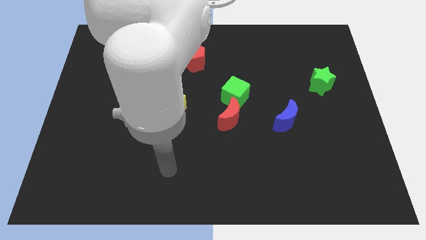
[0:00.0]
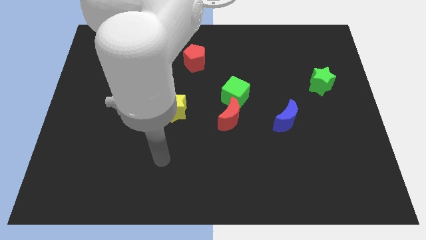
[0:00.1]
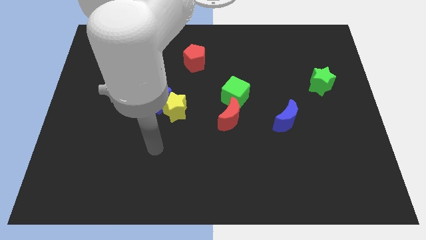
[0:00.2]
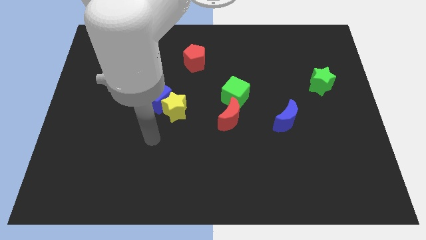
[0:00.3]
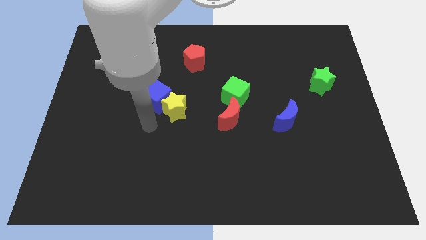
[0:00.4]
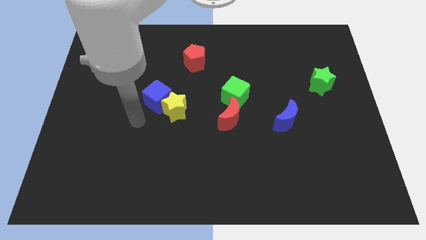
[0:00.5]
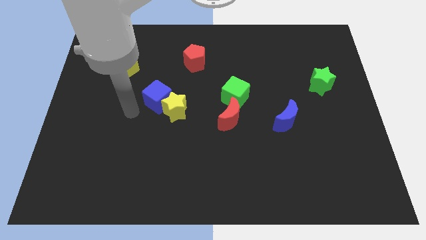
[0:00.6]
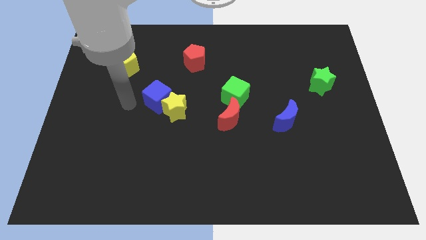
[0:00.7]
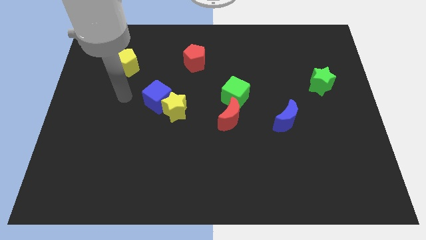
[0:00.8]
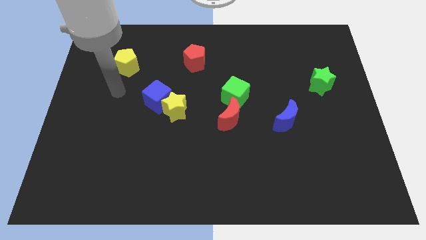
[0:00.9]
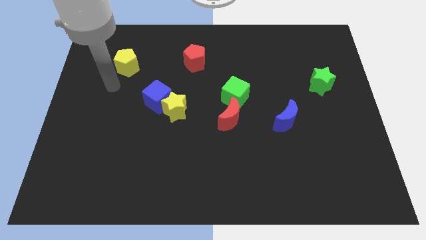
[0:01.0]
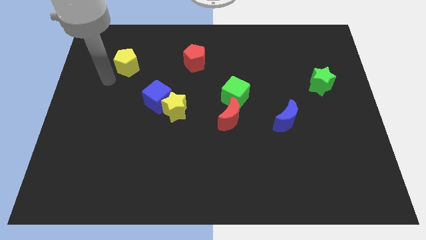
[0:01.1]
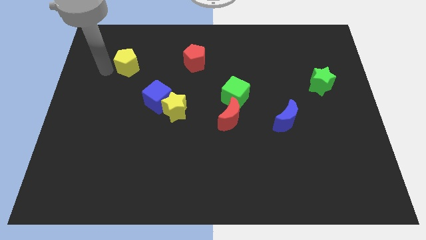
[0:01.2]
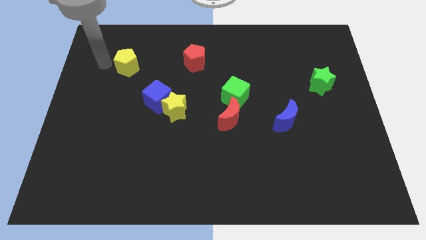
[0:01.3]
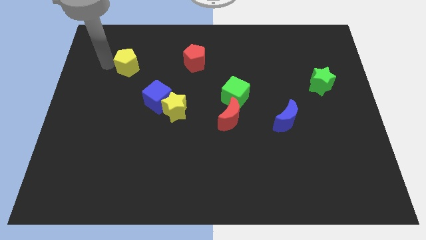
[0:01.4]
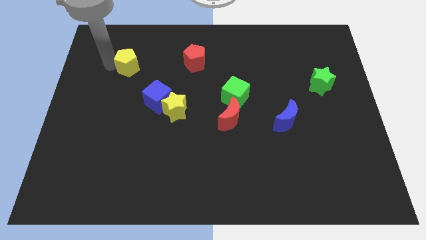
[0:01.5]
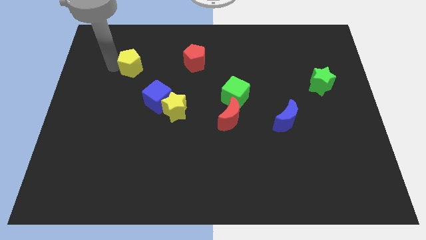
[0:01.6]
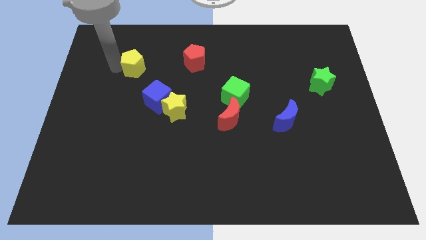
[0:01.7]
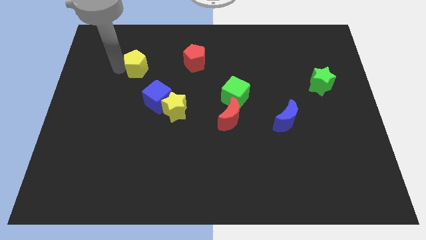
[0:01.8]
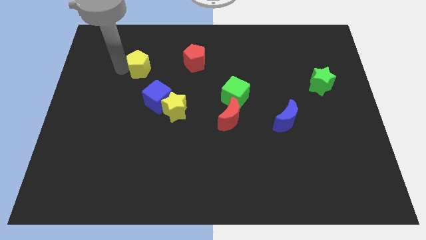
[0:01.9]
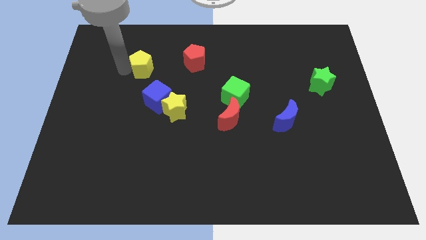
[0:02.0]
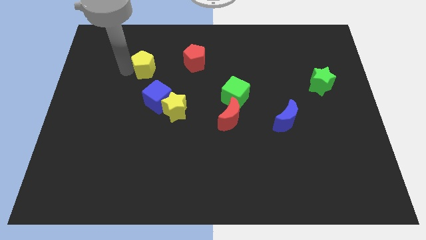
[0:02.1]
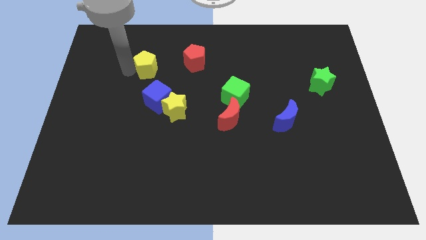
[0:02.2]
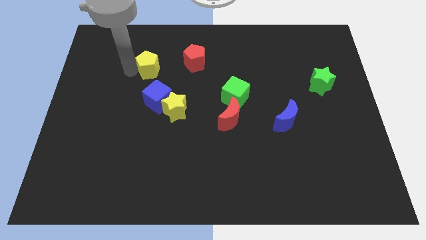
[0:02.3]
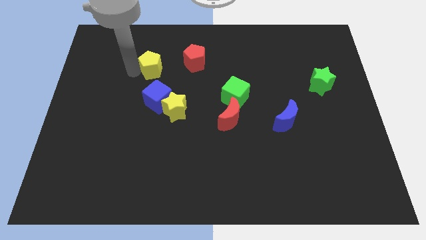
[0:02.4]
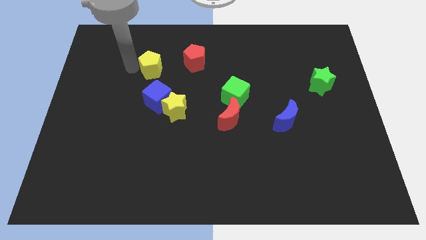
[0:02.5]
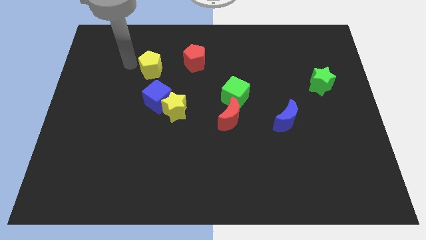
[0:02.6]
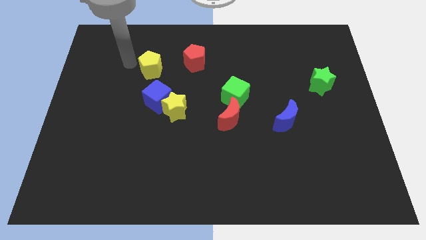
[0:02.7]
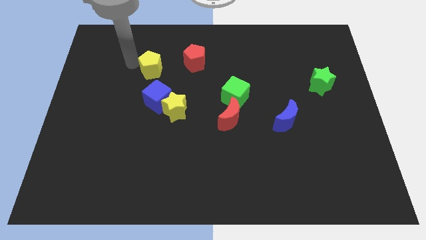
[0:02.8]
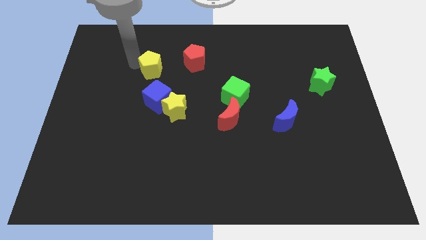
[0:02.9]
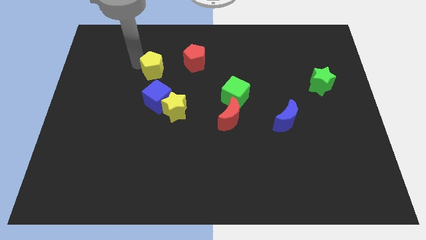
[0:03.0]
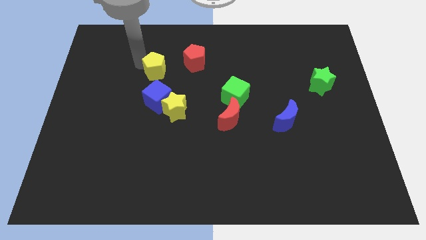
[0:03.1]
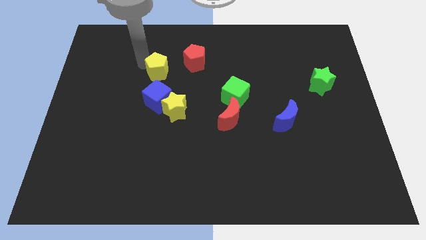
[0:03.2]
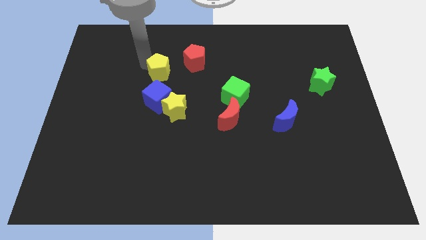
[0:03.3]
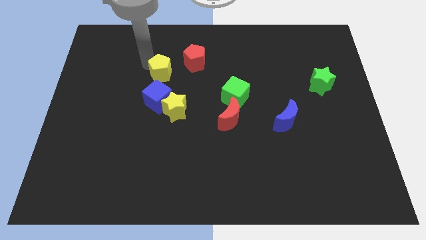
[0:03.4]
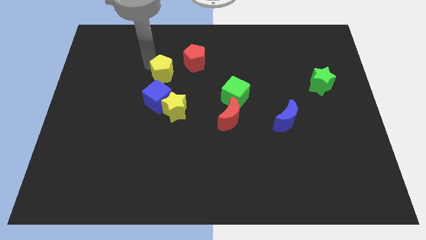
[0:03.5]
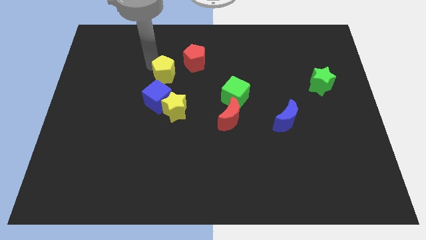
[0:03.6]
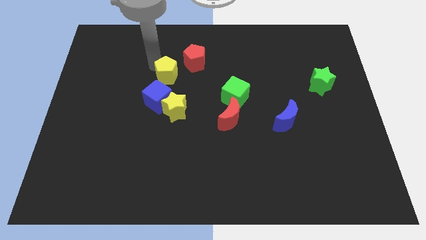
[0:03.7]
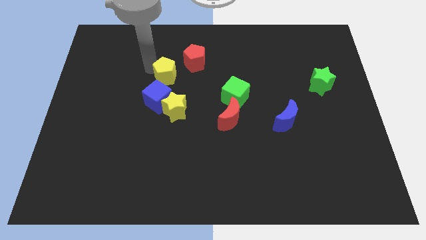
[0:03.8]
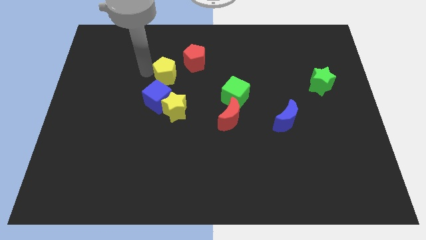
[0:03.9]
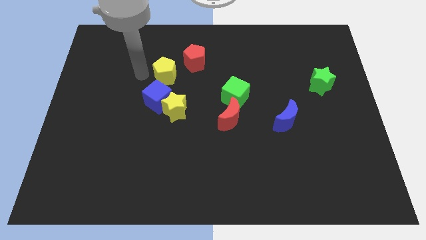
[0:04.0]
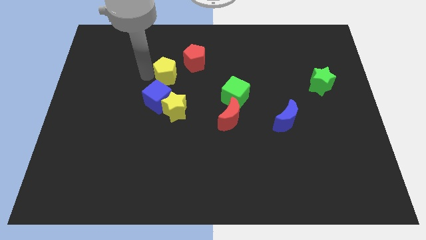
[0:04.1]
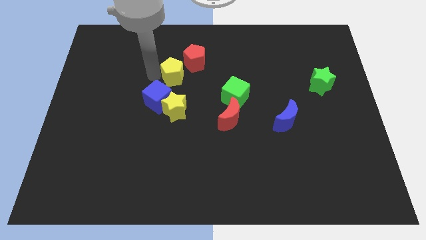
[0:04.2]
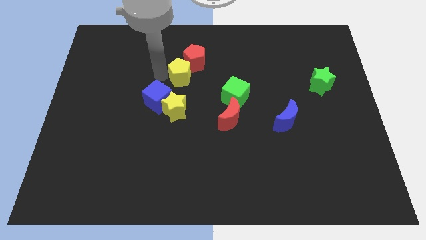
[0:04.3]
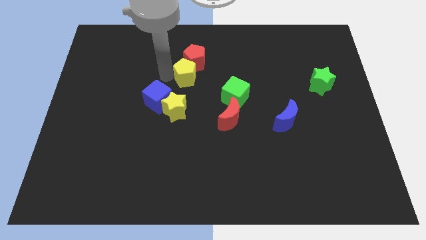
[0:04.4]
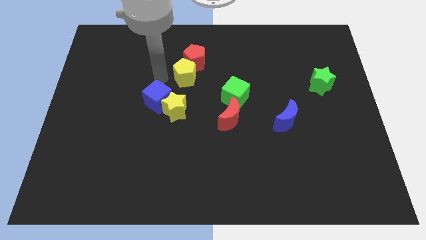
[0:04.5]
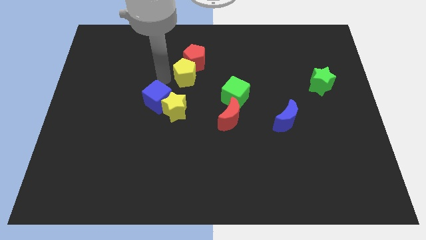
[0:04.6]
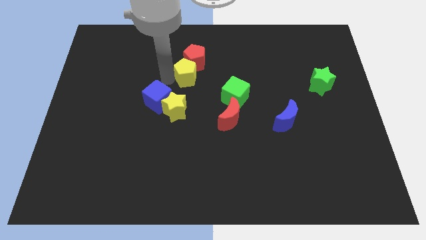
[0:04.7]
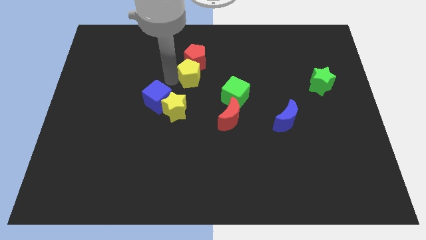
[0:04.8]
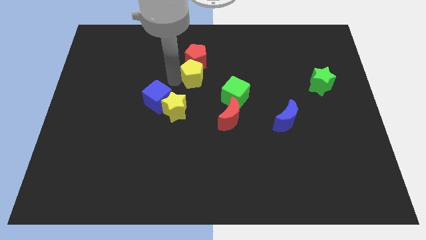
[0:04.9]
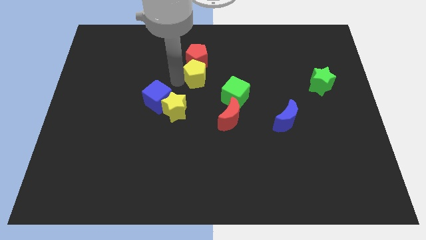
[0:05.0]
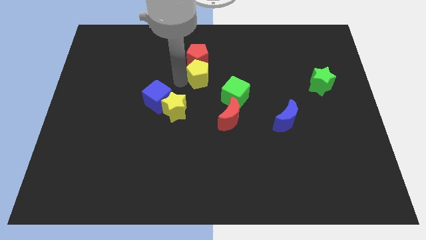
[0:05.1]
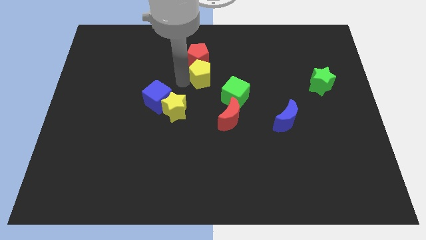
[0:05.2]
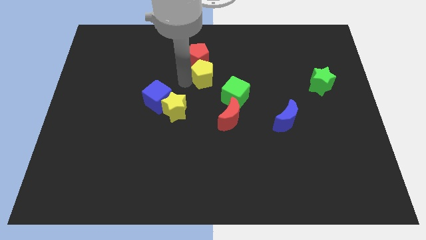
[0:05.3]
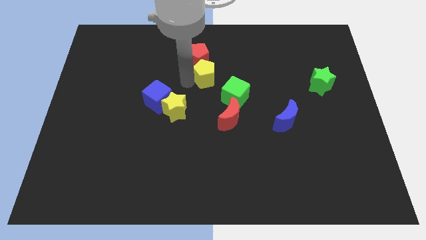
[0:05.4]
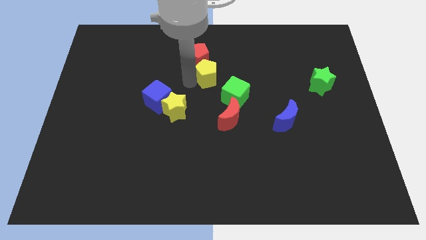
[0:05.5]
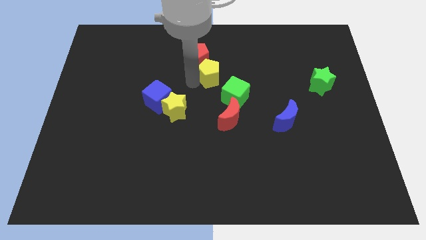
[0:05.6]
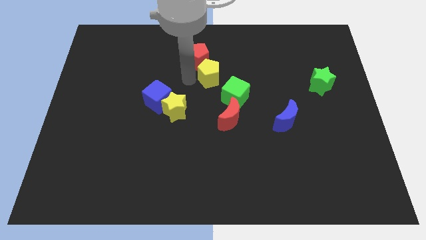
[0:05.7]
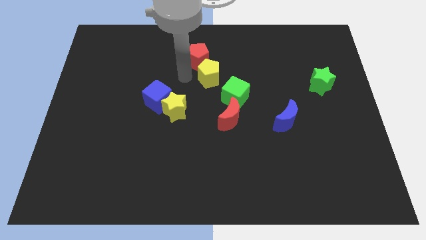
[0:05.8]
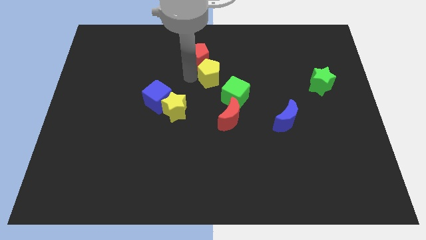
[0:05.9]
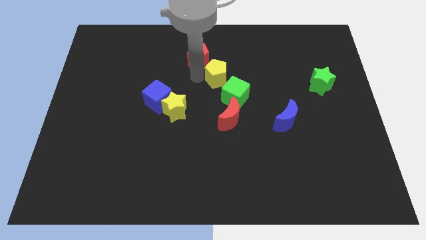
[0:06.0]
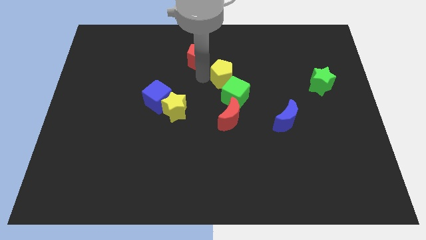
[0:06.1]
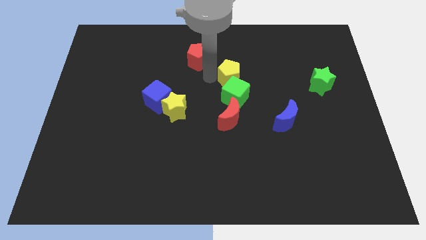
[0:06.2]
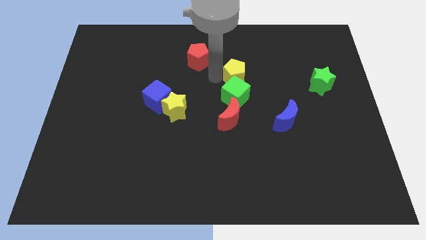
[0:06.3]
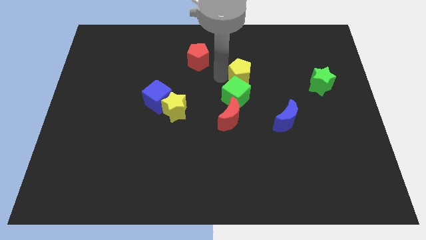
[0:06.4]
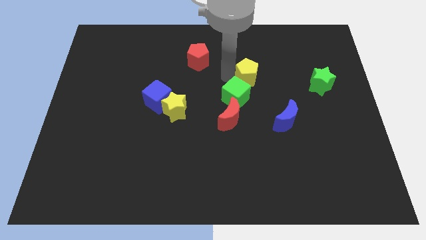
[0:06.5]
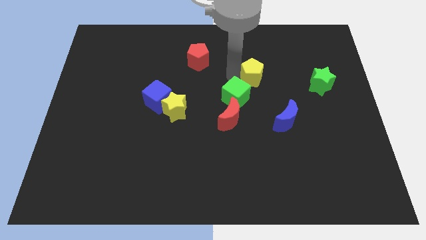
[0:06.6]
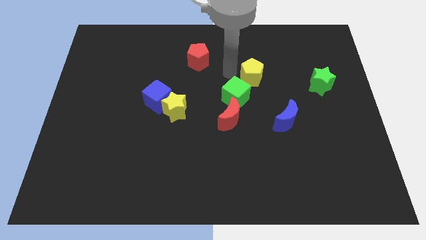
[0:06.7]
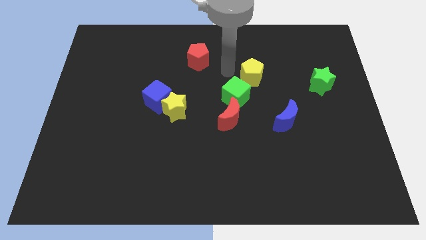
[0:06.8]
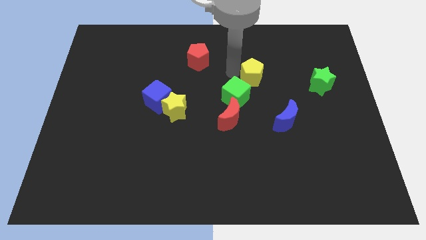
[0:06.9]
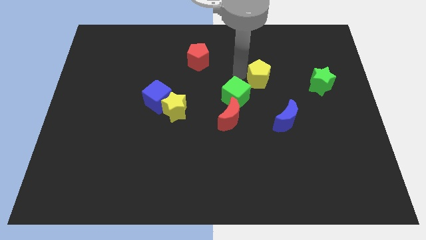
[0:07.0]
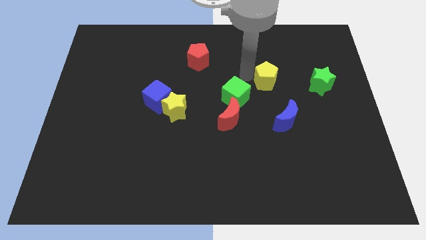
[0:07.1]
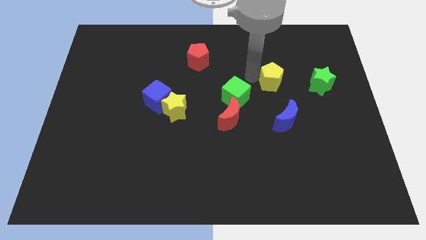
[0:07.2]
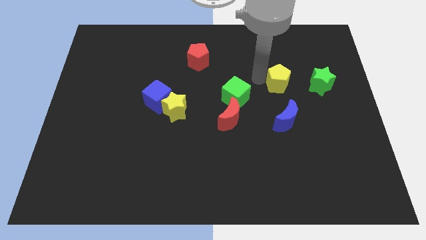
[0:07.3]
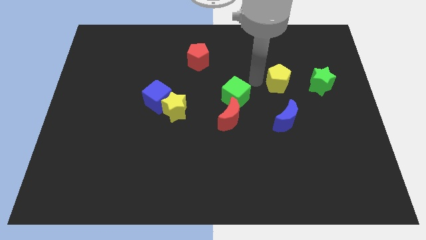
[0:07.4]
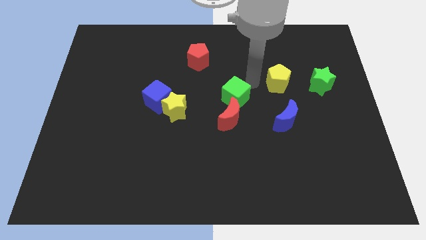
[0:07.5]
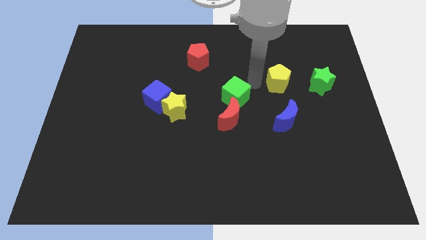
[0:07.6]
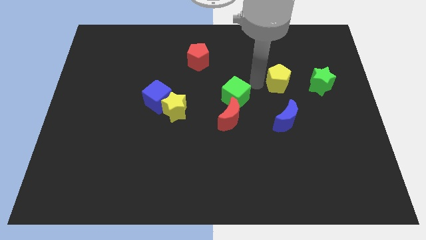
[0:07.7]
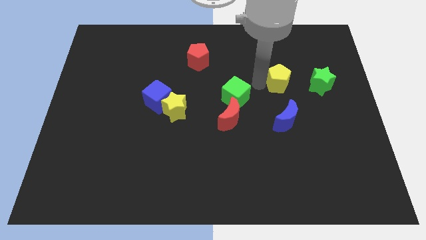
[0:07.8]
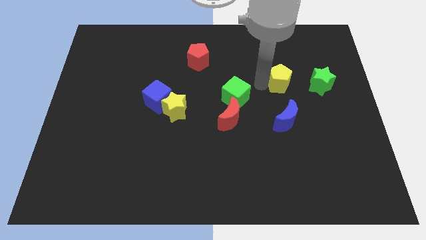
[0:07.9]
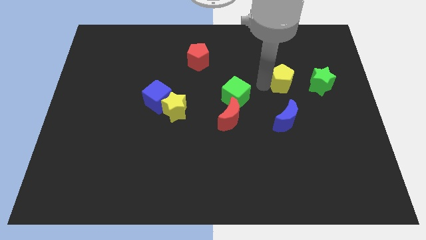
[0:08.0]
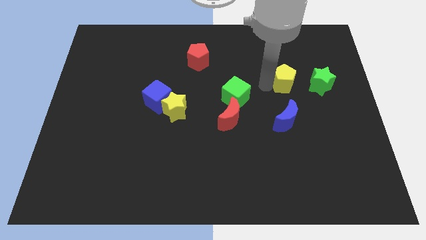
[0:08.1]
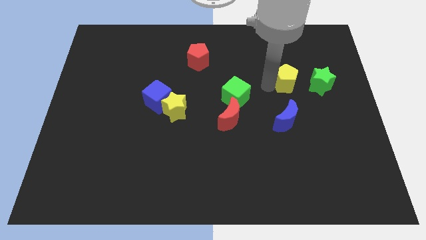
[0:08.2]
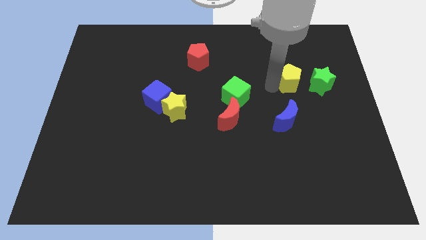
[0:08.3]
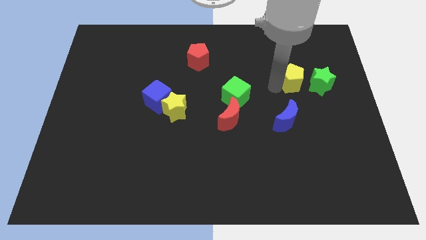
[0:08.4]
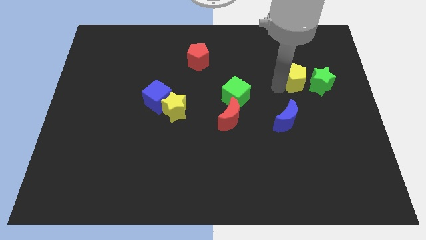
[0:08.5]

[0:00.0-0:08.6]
push the yellow pentagon next to the green star
